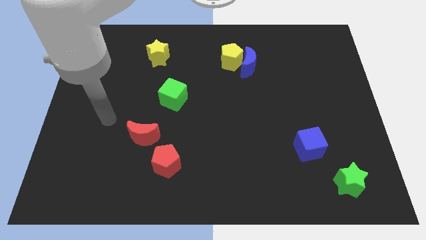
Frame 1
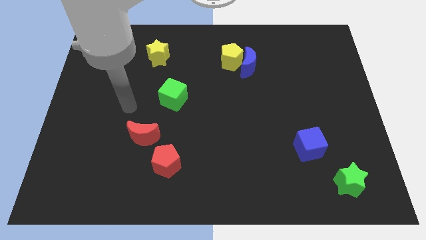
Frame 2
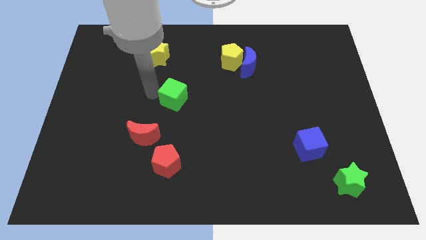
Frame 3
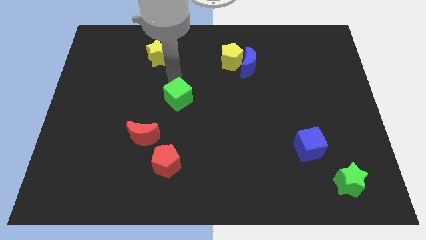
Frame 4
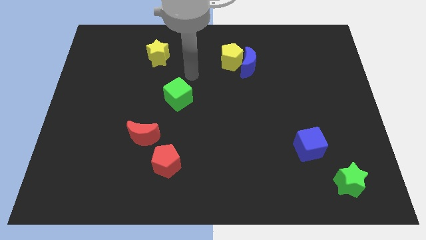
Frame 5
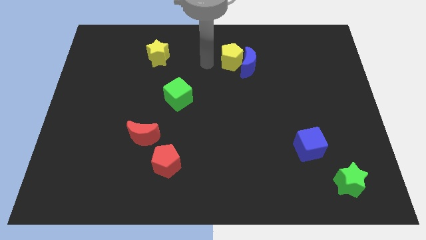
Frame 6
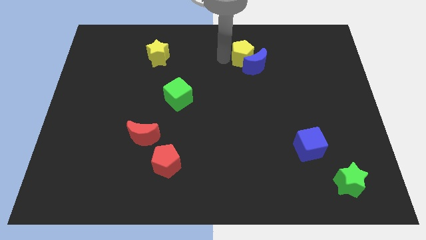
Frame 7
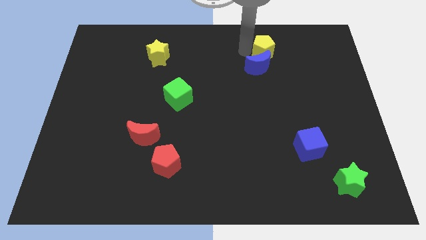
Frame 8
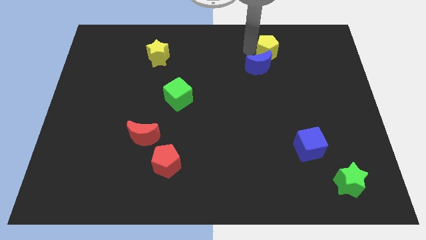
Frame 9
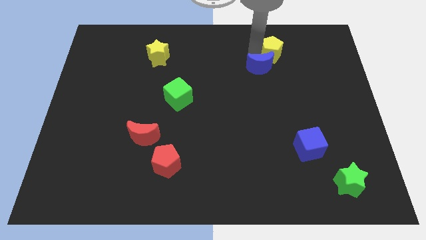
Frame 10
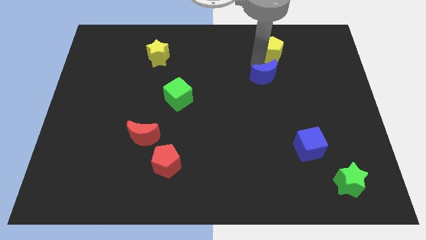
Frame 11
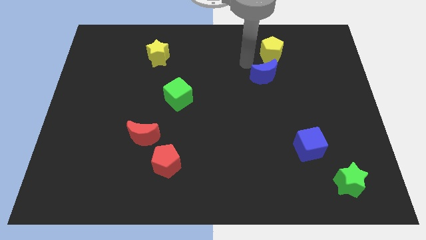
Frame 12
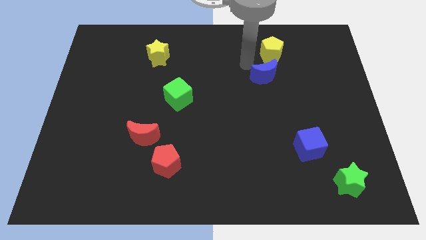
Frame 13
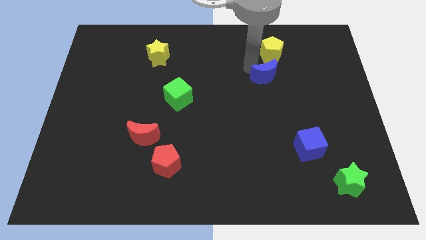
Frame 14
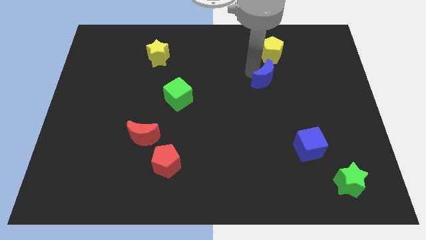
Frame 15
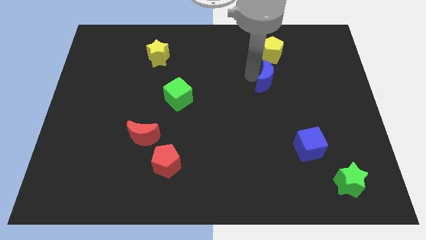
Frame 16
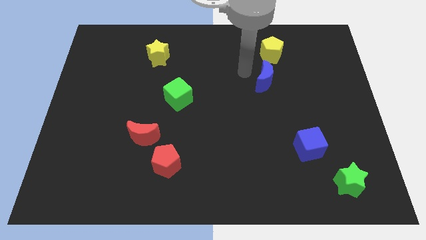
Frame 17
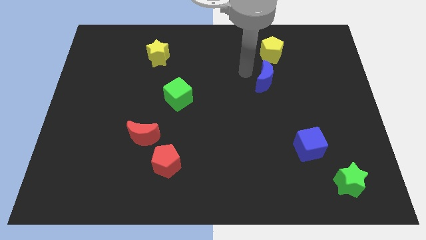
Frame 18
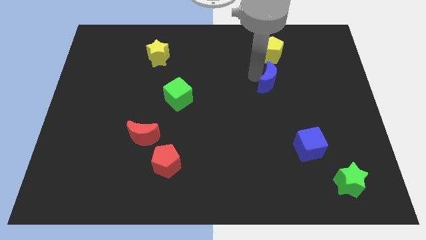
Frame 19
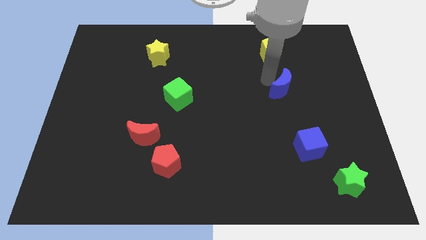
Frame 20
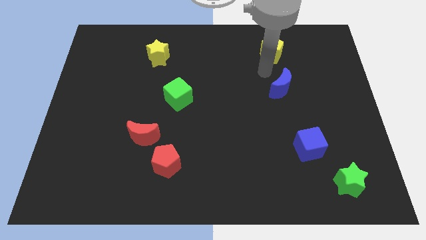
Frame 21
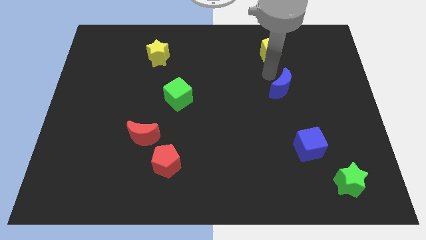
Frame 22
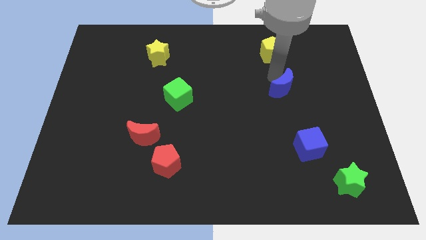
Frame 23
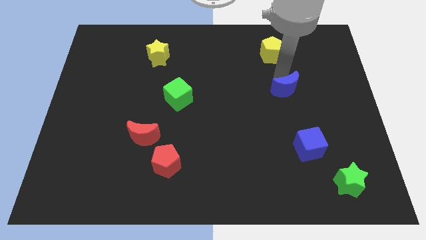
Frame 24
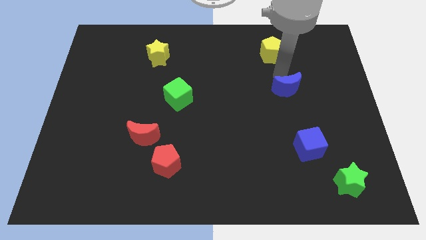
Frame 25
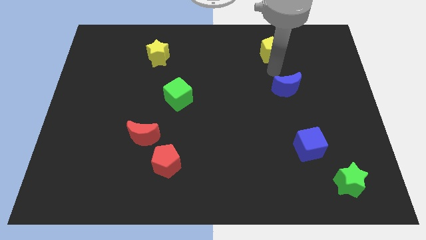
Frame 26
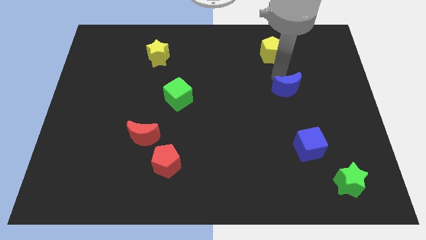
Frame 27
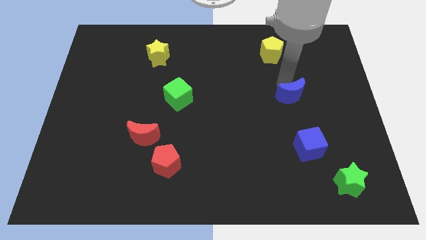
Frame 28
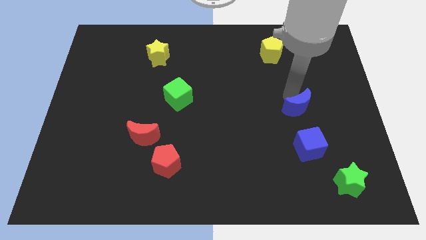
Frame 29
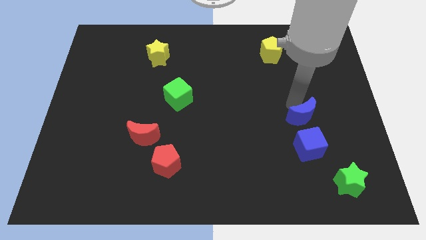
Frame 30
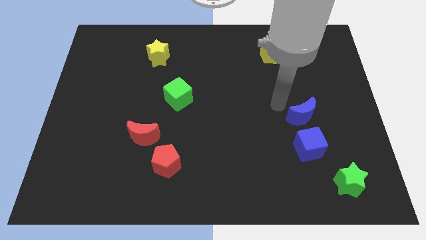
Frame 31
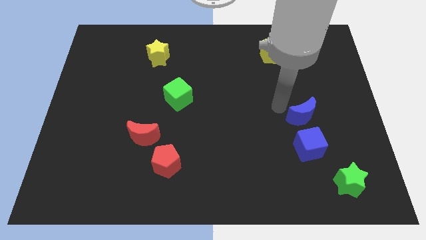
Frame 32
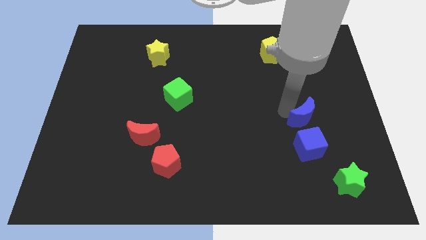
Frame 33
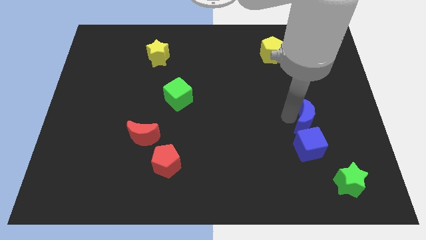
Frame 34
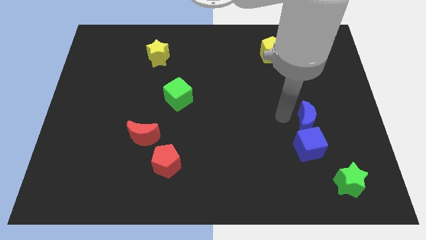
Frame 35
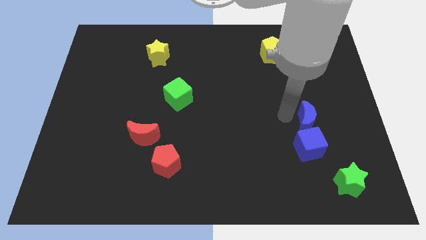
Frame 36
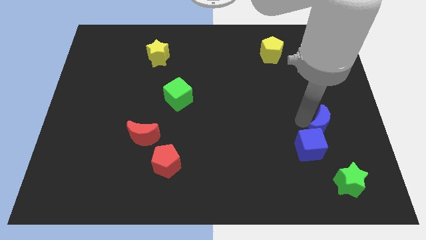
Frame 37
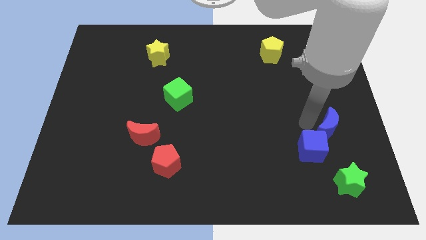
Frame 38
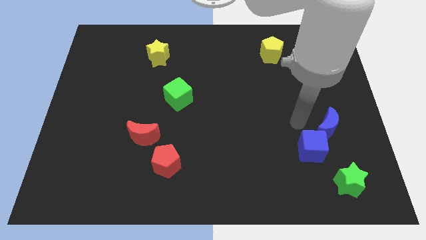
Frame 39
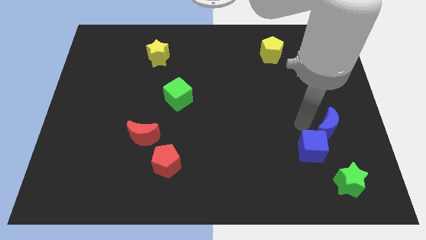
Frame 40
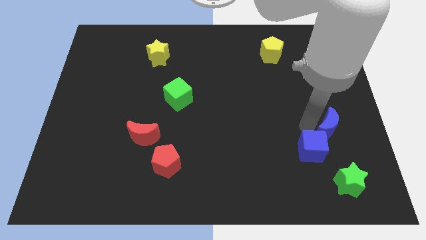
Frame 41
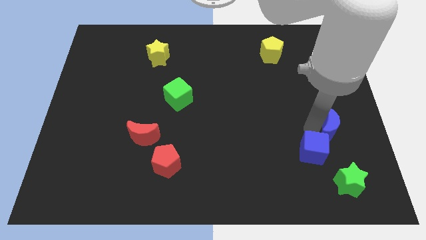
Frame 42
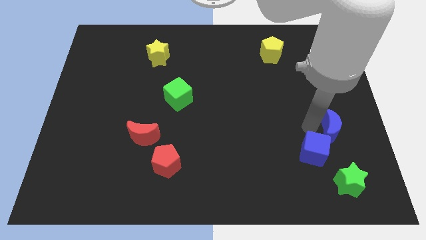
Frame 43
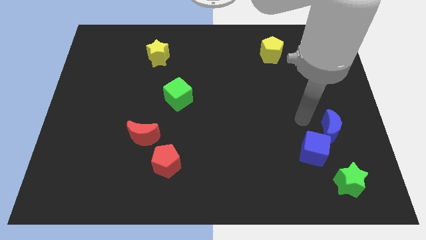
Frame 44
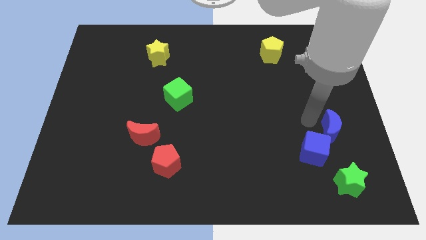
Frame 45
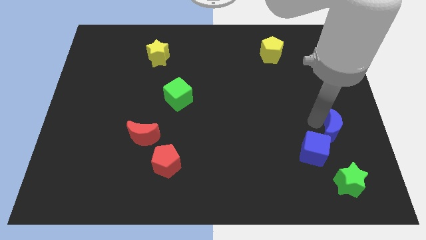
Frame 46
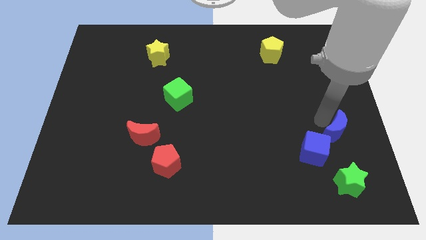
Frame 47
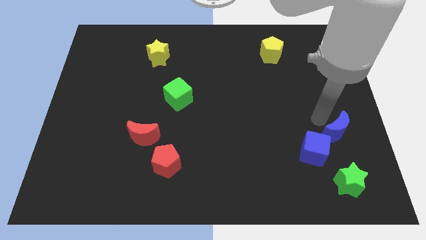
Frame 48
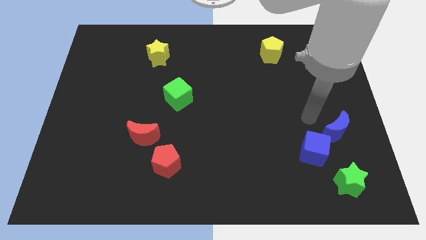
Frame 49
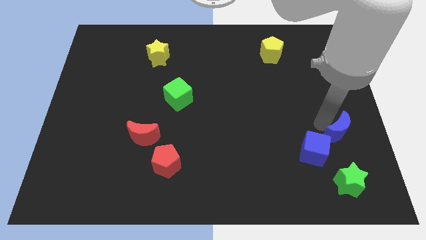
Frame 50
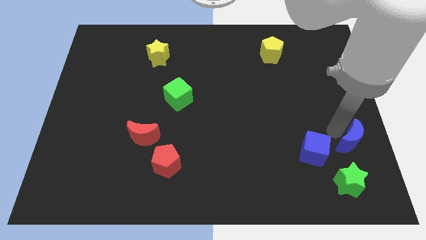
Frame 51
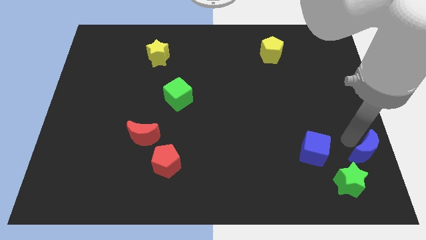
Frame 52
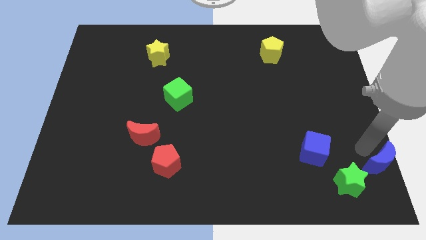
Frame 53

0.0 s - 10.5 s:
move the blue moon to the lower right corner

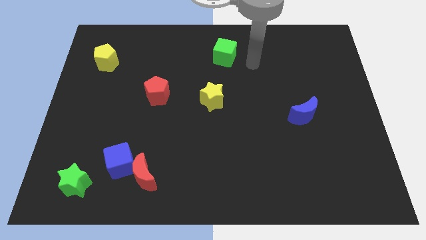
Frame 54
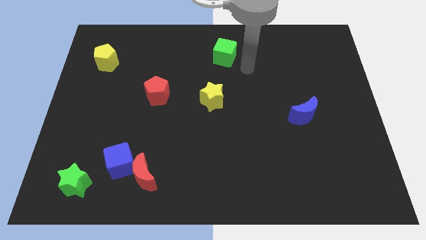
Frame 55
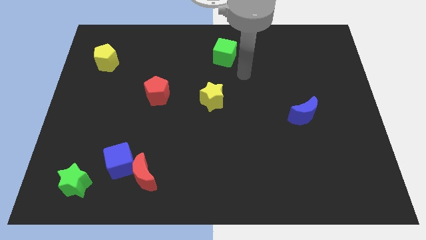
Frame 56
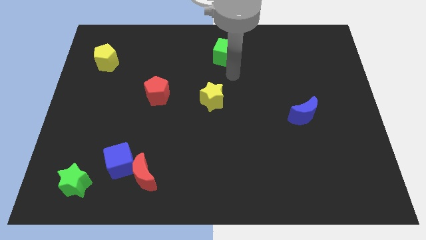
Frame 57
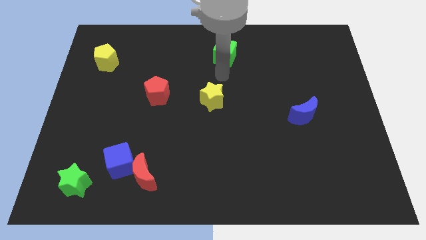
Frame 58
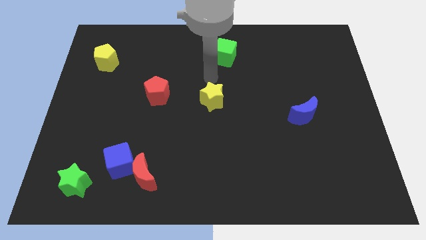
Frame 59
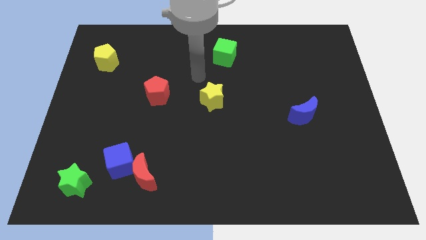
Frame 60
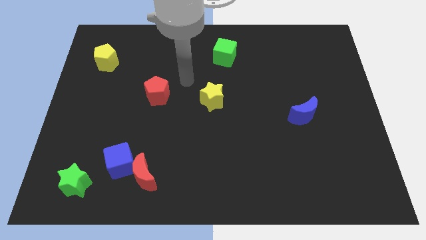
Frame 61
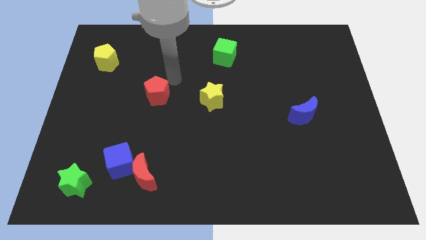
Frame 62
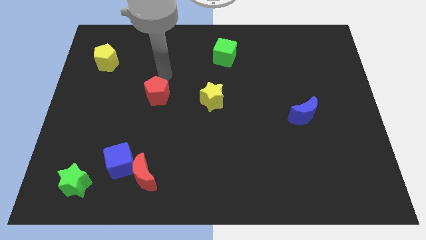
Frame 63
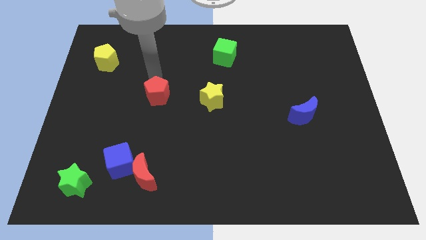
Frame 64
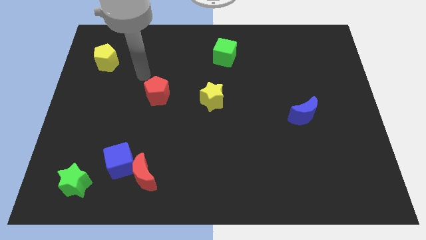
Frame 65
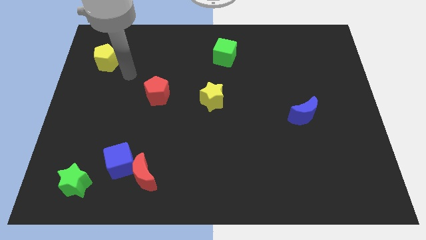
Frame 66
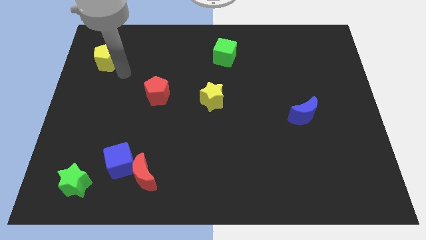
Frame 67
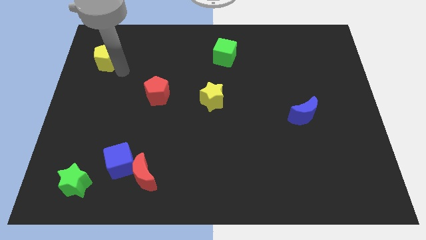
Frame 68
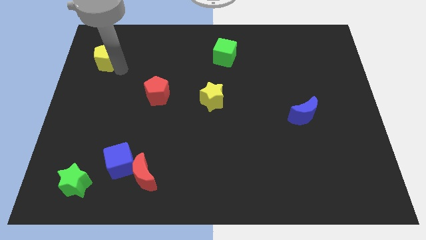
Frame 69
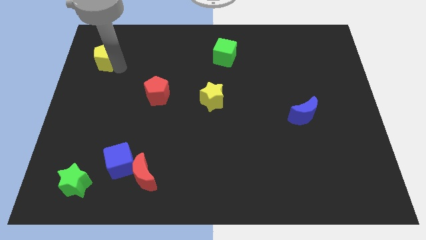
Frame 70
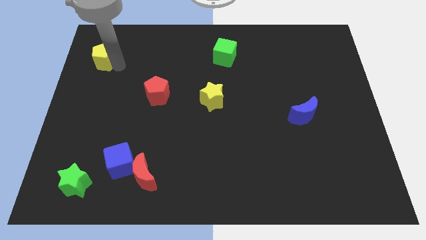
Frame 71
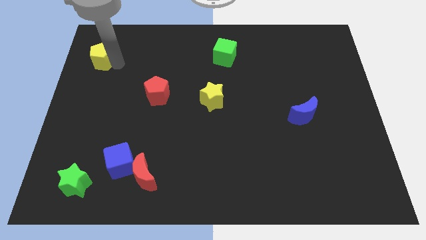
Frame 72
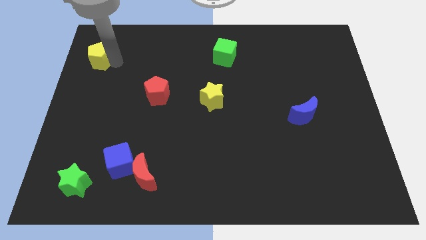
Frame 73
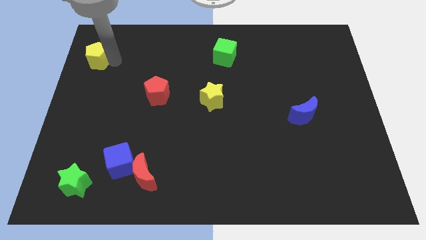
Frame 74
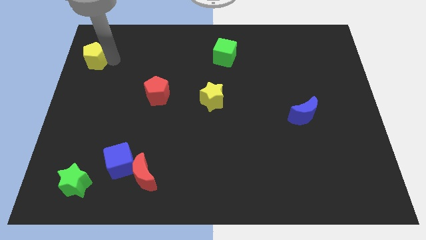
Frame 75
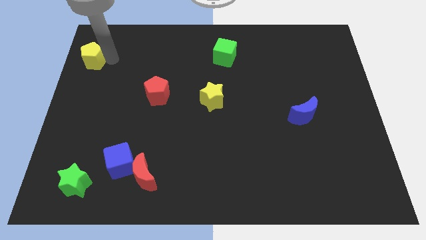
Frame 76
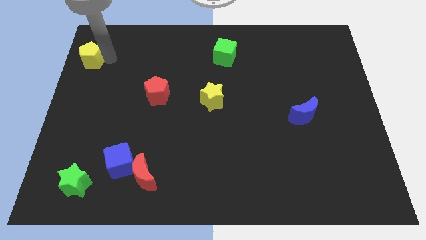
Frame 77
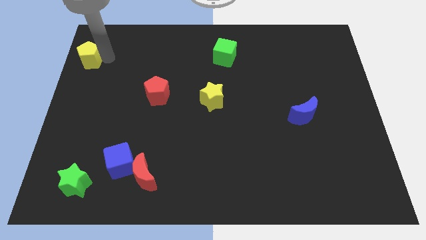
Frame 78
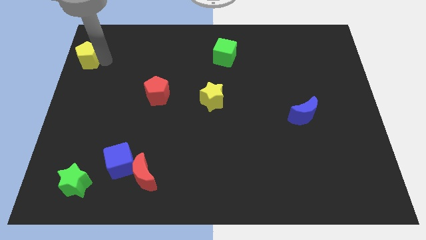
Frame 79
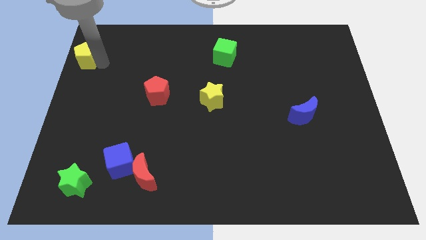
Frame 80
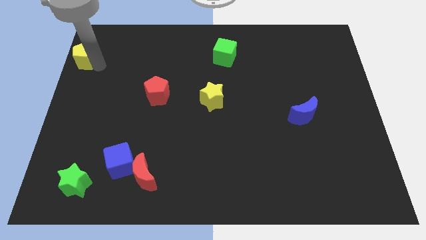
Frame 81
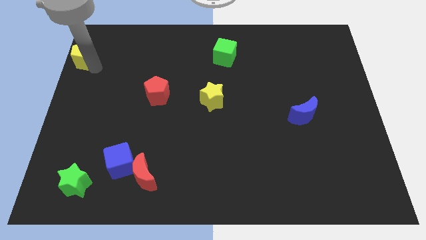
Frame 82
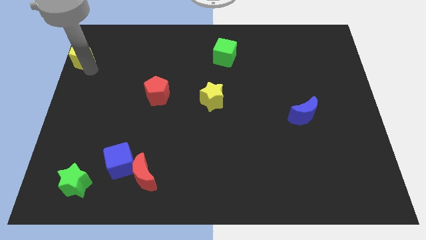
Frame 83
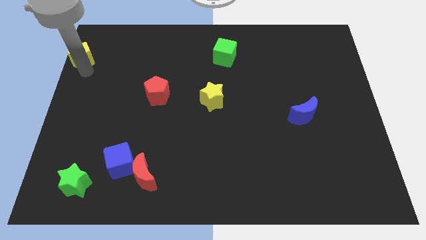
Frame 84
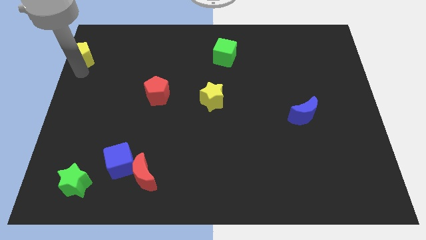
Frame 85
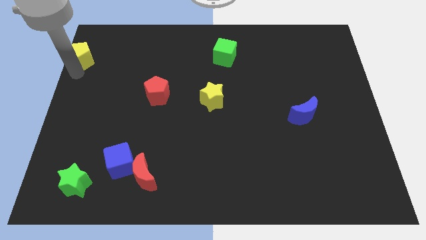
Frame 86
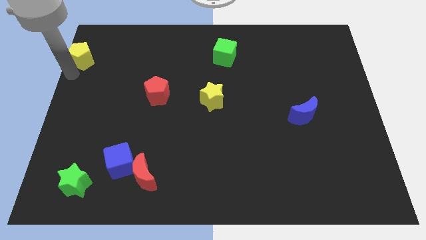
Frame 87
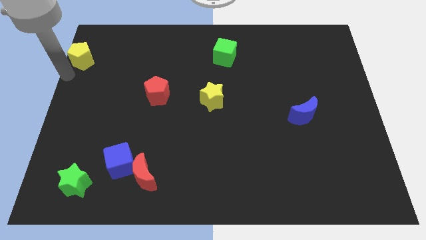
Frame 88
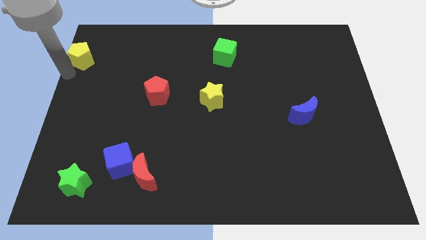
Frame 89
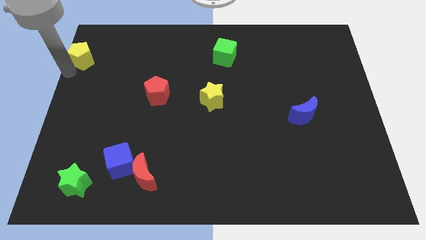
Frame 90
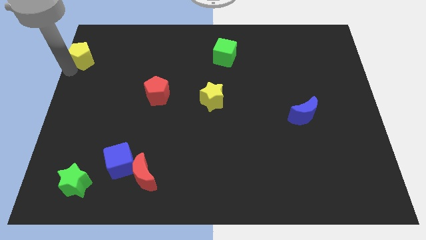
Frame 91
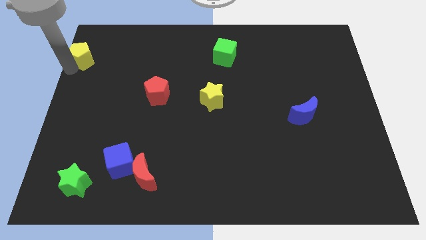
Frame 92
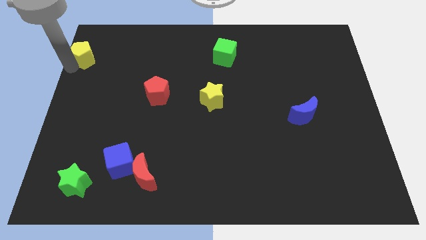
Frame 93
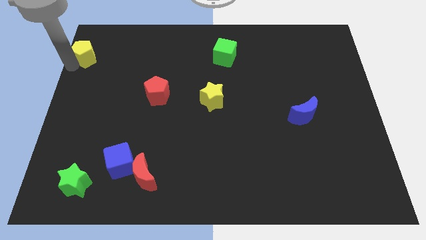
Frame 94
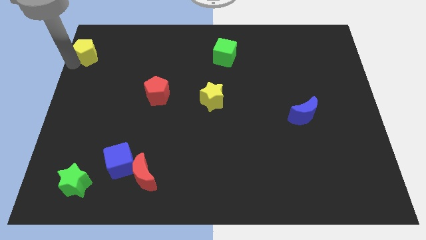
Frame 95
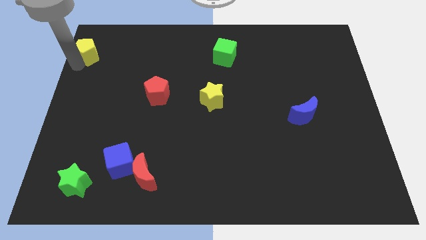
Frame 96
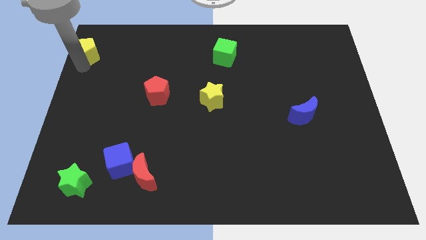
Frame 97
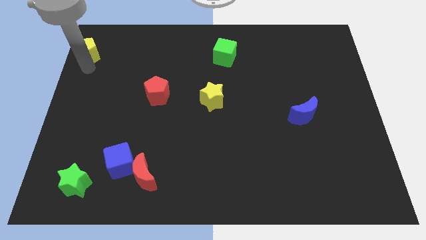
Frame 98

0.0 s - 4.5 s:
put the yellow pentagon to the top left of the board
